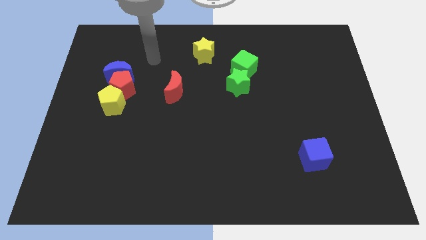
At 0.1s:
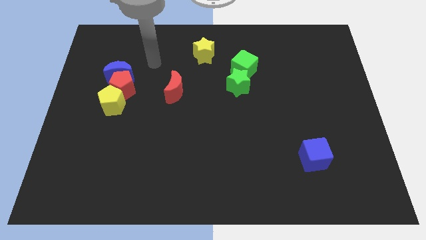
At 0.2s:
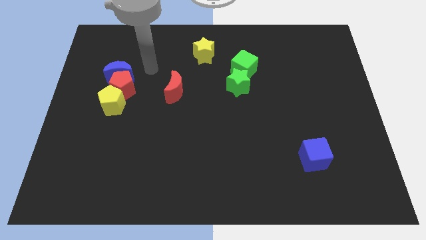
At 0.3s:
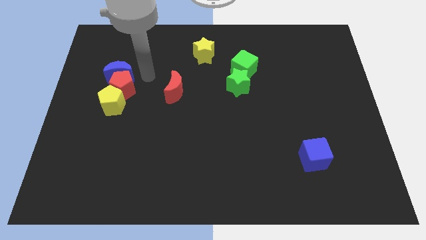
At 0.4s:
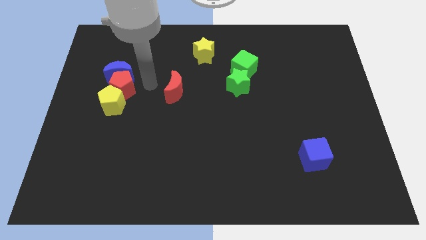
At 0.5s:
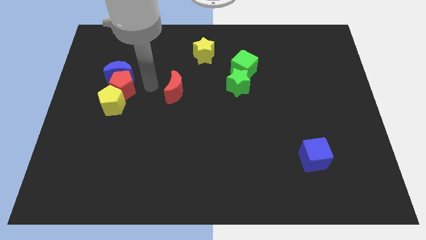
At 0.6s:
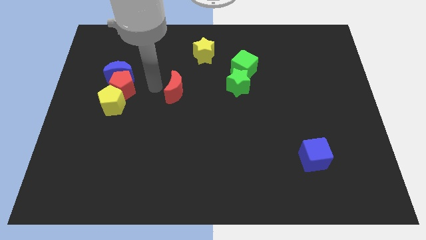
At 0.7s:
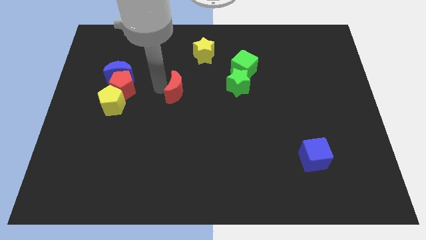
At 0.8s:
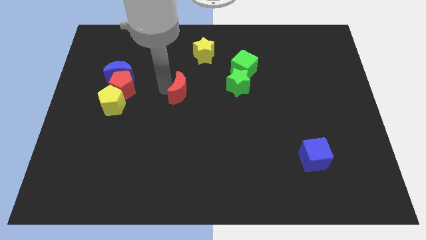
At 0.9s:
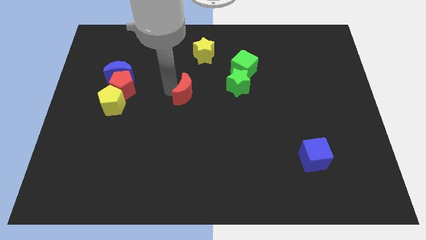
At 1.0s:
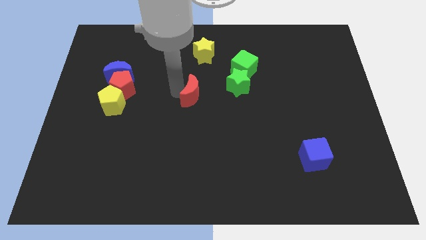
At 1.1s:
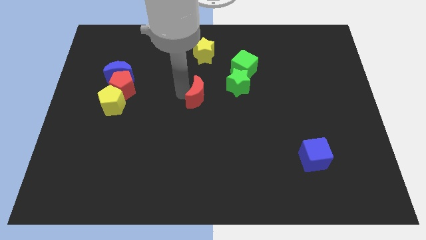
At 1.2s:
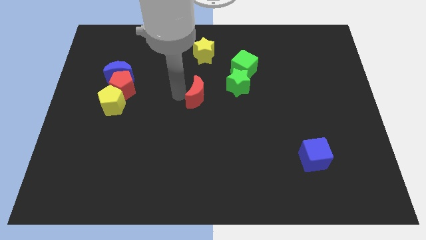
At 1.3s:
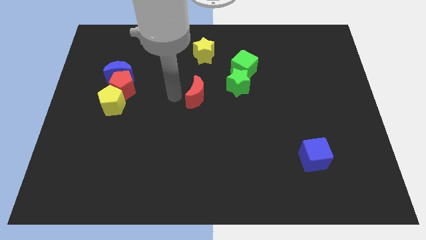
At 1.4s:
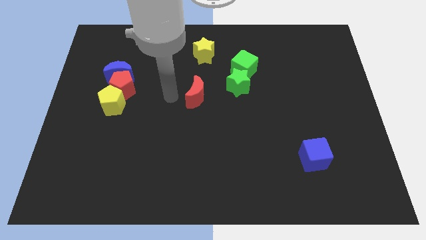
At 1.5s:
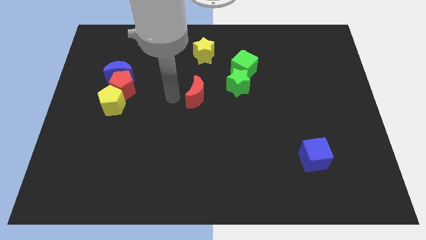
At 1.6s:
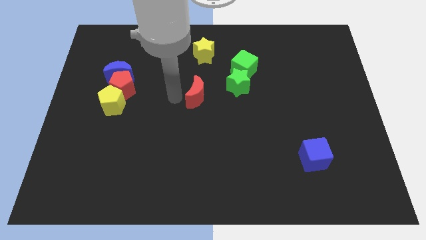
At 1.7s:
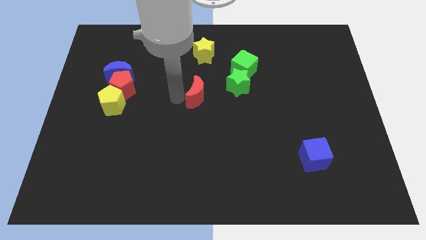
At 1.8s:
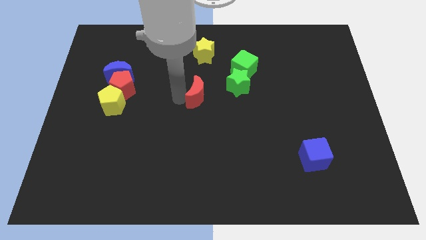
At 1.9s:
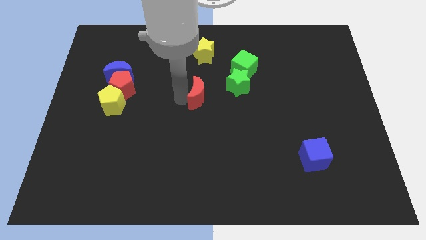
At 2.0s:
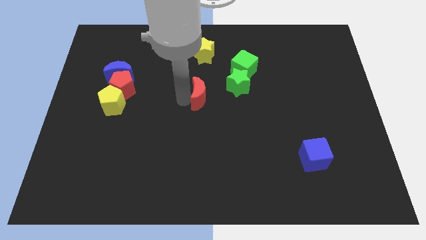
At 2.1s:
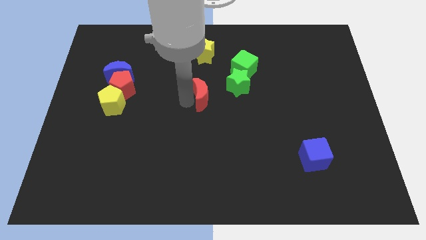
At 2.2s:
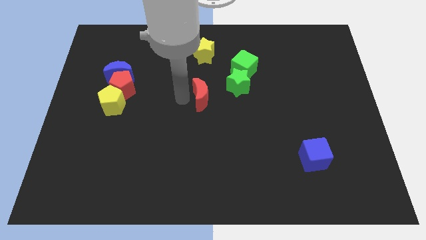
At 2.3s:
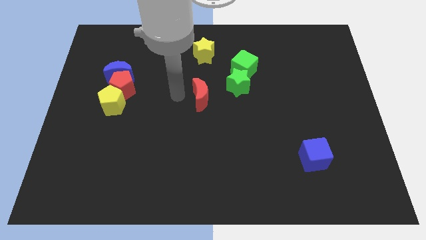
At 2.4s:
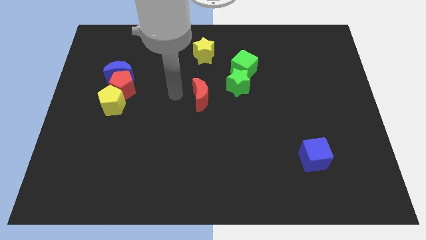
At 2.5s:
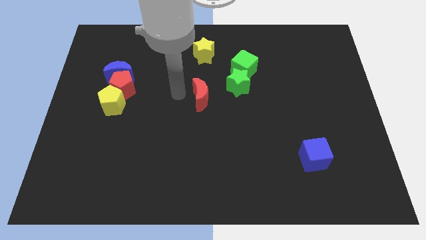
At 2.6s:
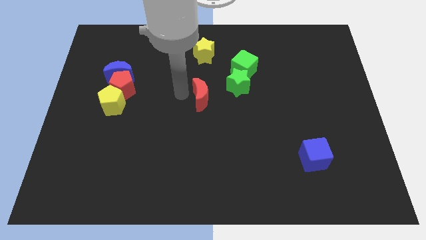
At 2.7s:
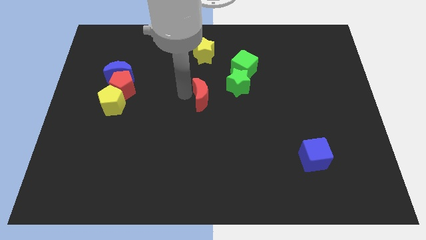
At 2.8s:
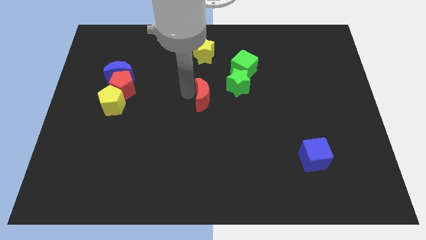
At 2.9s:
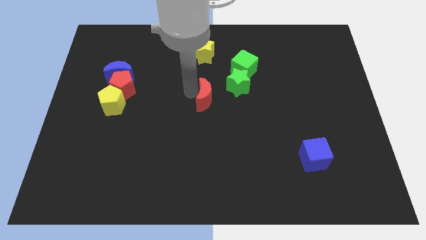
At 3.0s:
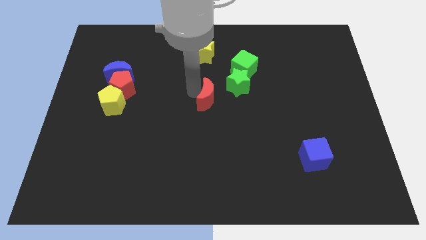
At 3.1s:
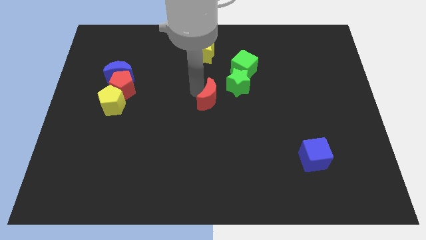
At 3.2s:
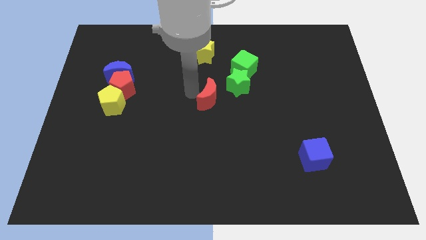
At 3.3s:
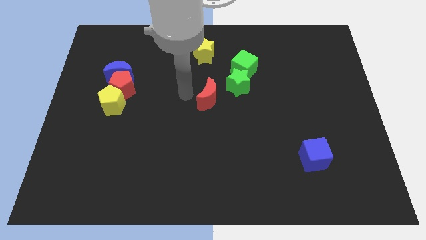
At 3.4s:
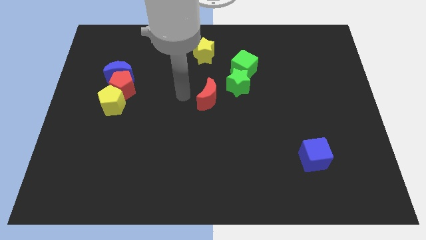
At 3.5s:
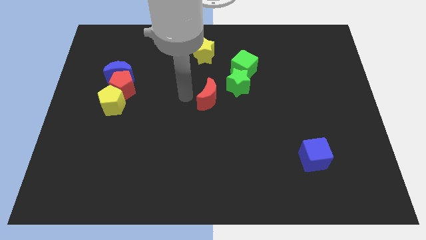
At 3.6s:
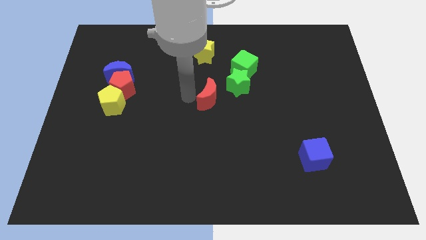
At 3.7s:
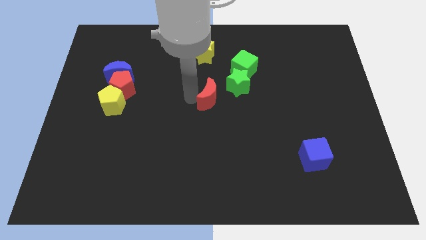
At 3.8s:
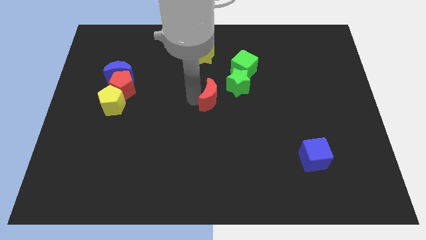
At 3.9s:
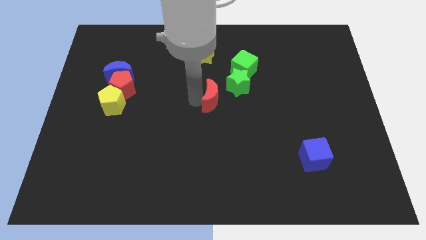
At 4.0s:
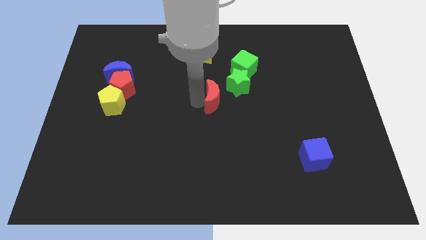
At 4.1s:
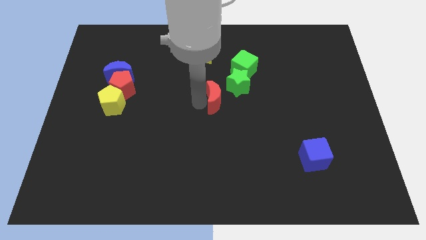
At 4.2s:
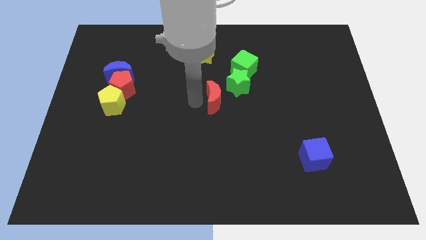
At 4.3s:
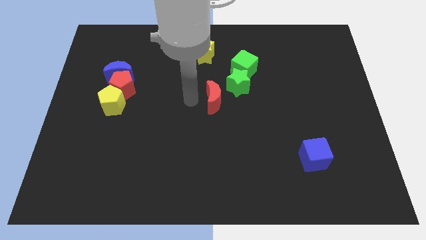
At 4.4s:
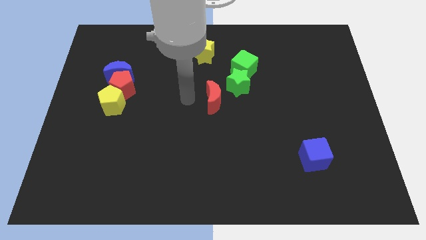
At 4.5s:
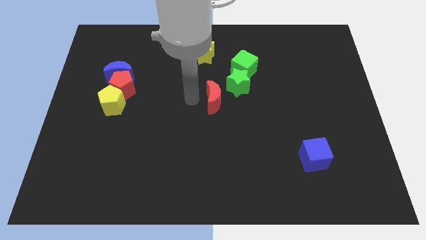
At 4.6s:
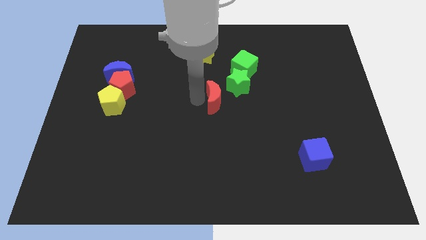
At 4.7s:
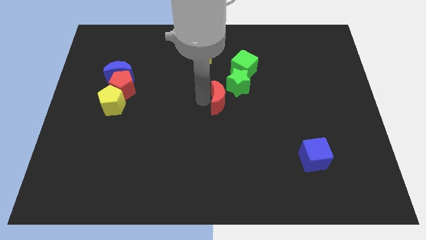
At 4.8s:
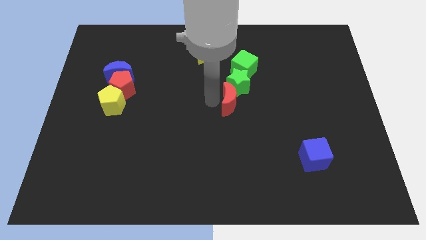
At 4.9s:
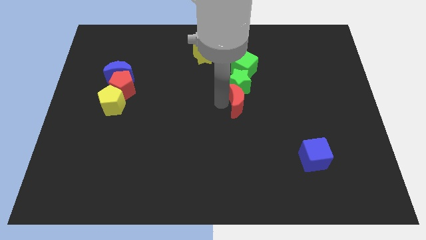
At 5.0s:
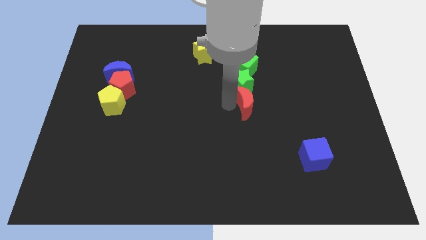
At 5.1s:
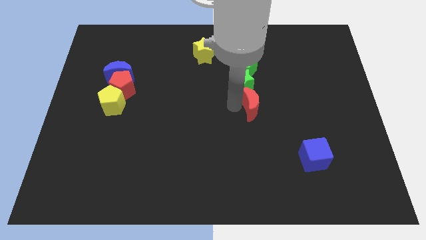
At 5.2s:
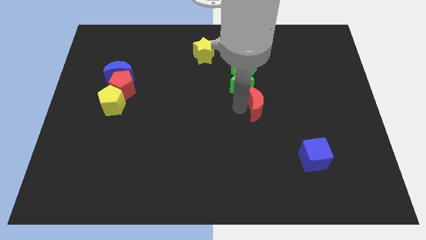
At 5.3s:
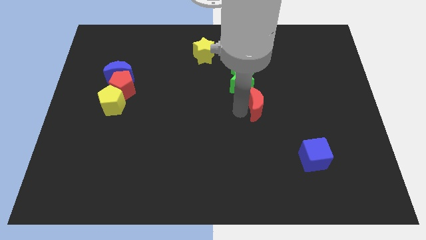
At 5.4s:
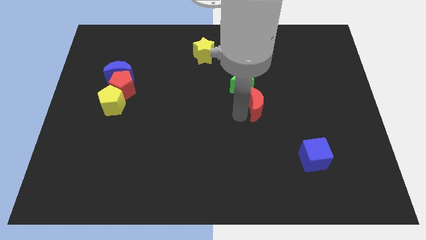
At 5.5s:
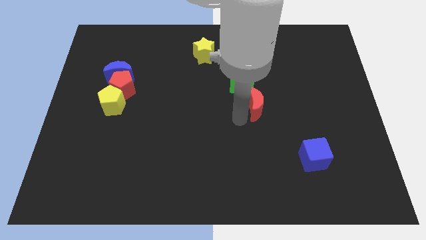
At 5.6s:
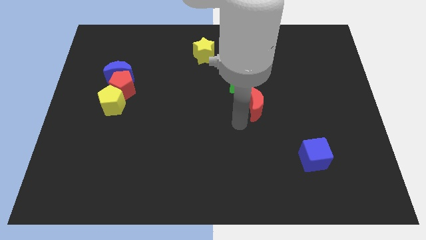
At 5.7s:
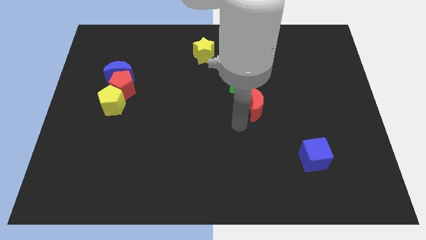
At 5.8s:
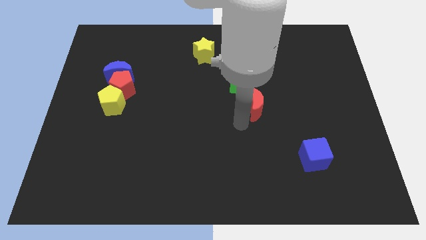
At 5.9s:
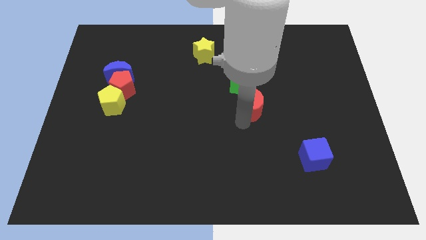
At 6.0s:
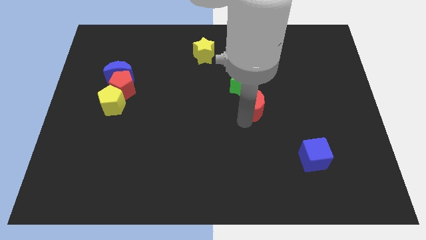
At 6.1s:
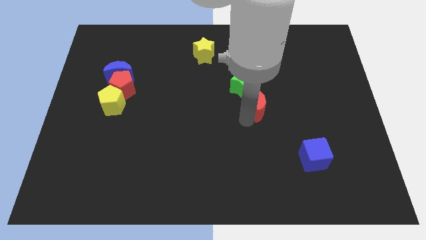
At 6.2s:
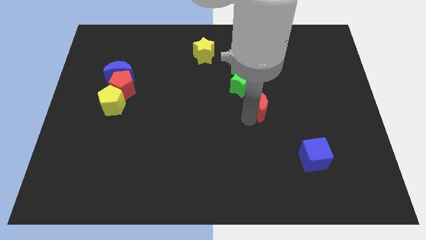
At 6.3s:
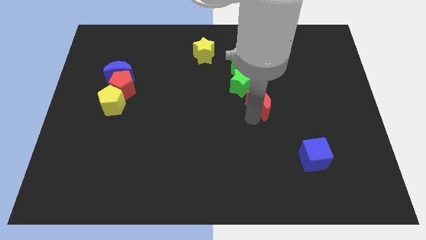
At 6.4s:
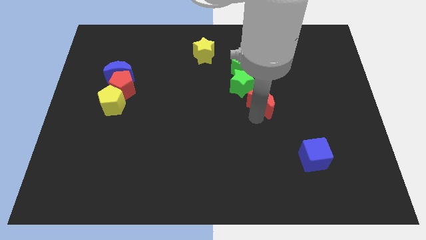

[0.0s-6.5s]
move the red moon right

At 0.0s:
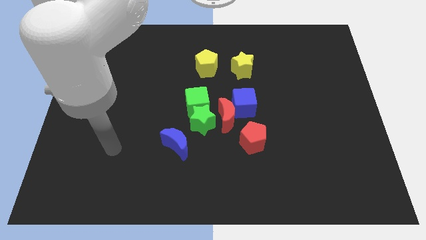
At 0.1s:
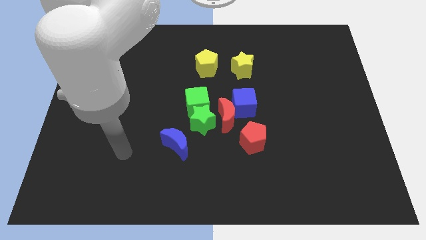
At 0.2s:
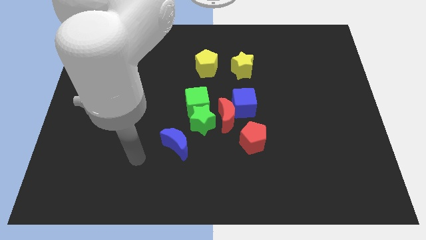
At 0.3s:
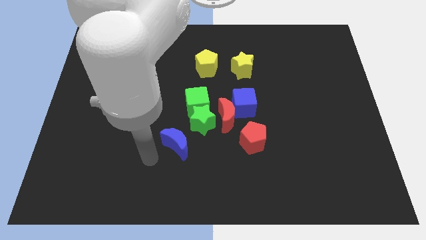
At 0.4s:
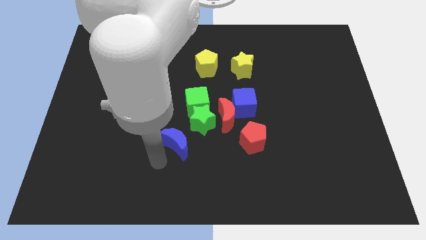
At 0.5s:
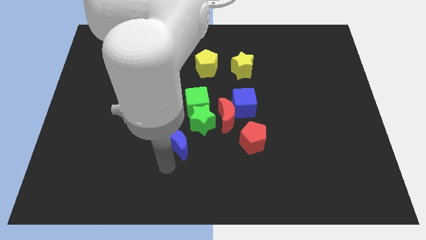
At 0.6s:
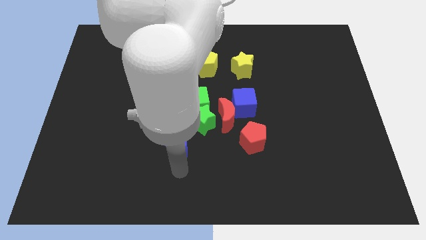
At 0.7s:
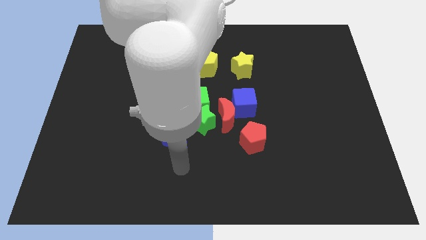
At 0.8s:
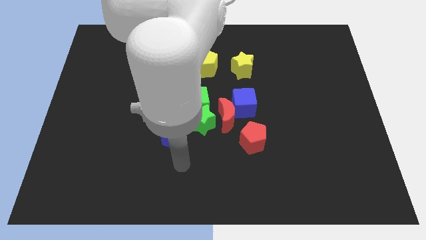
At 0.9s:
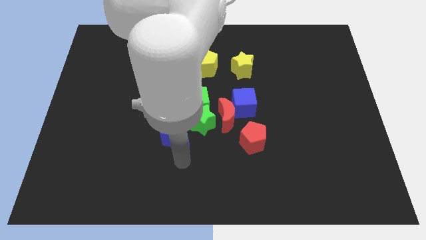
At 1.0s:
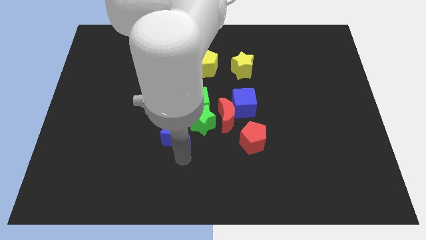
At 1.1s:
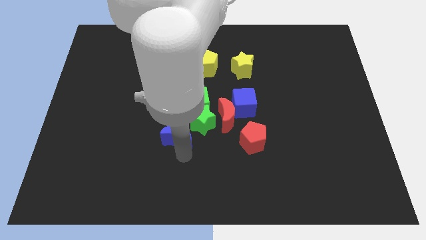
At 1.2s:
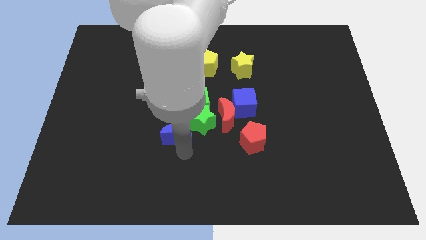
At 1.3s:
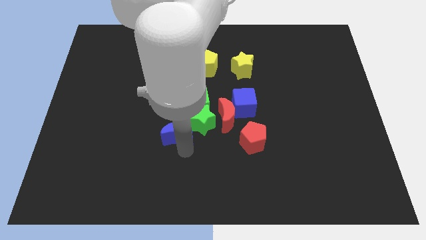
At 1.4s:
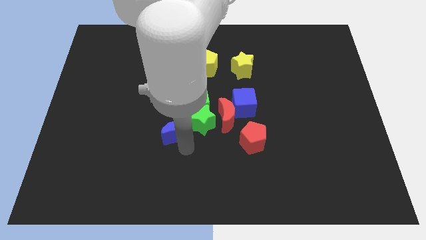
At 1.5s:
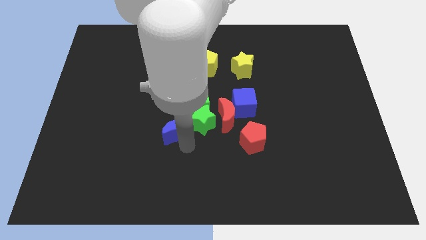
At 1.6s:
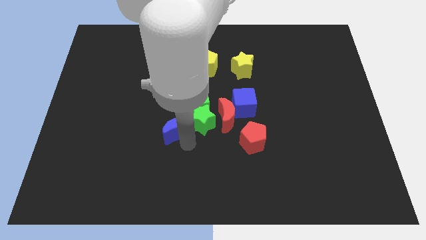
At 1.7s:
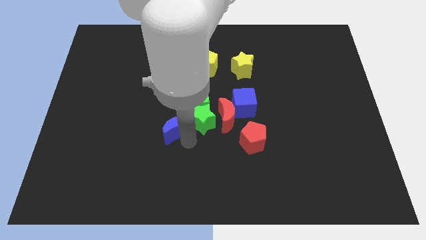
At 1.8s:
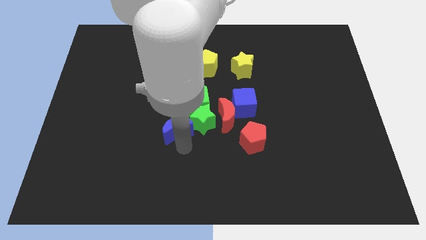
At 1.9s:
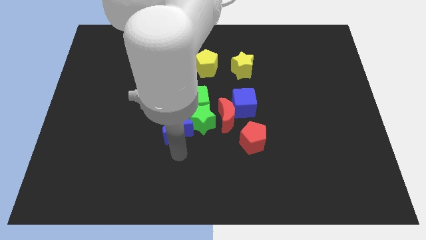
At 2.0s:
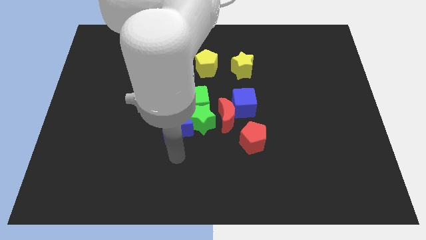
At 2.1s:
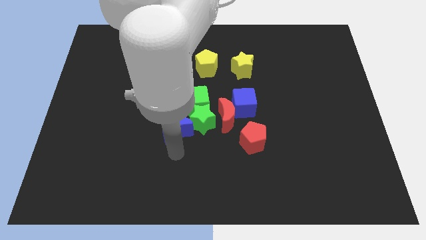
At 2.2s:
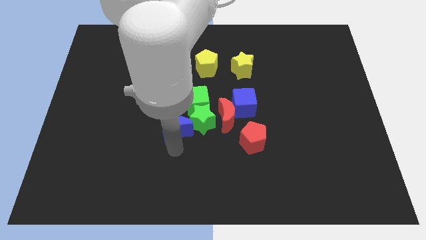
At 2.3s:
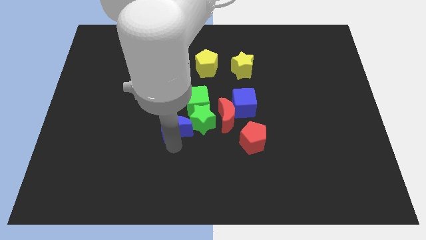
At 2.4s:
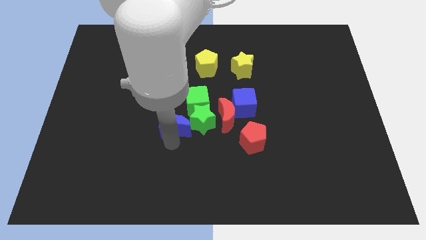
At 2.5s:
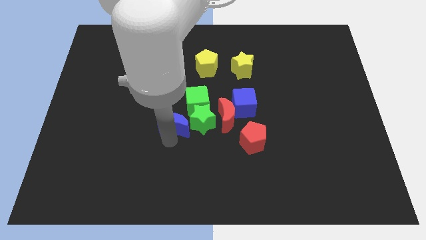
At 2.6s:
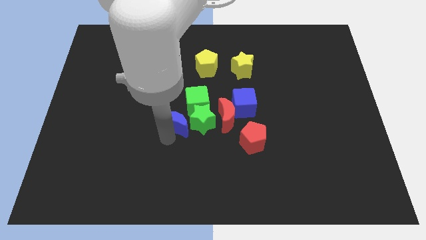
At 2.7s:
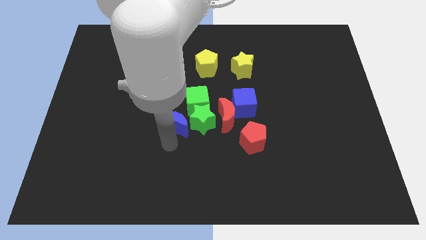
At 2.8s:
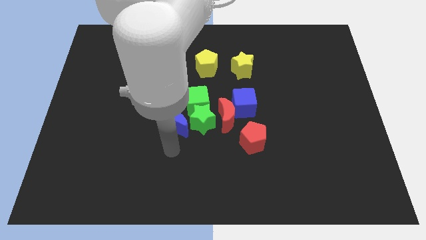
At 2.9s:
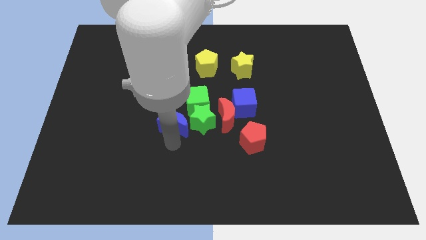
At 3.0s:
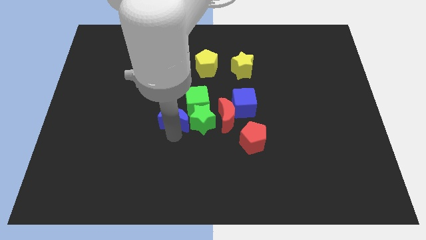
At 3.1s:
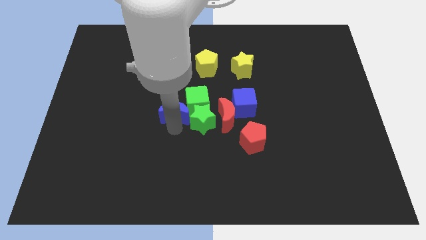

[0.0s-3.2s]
slightly push the blue moon up
